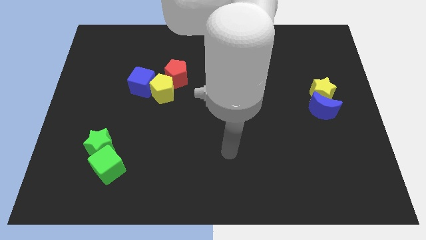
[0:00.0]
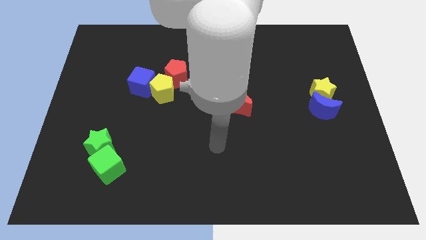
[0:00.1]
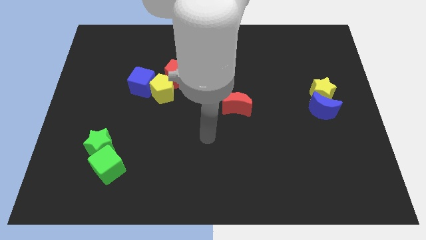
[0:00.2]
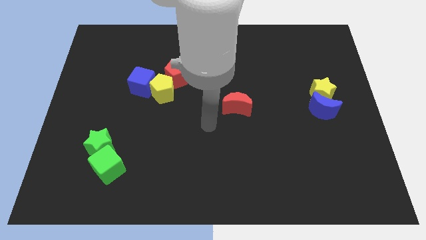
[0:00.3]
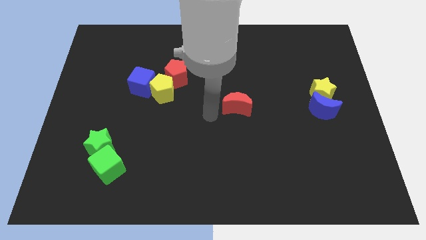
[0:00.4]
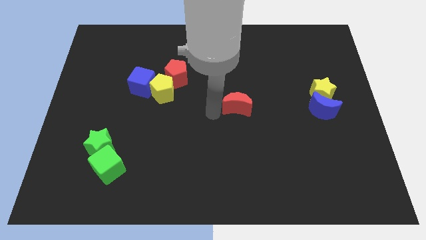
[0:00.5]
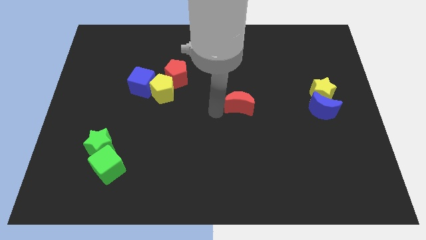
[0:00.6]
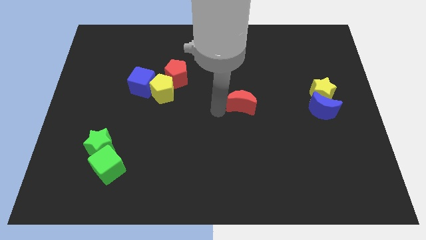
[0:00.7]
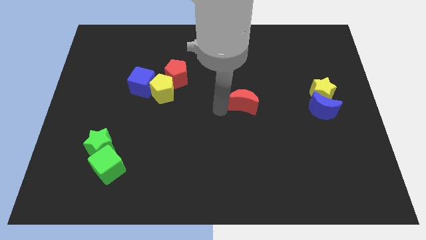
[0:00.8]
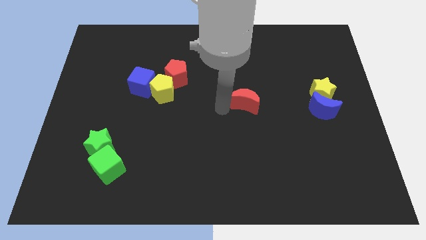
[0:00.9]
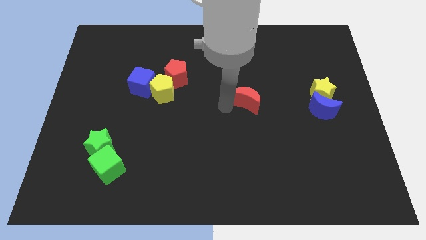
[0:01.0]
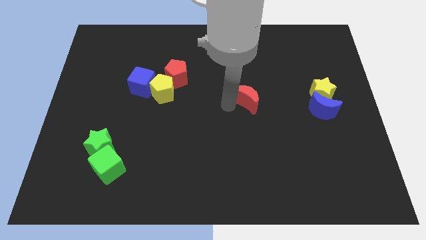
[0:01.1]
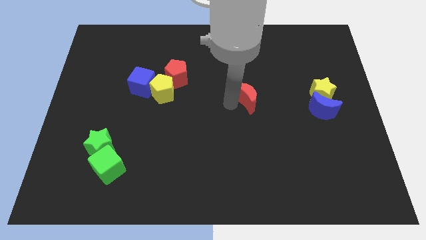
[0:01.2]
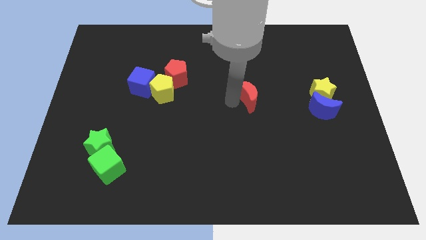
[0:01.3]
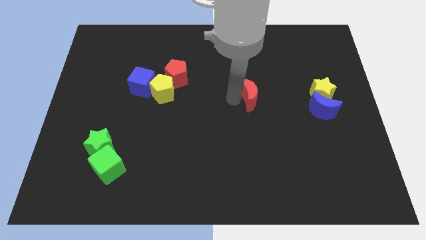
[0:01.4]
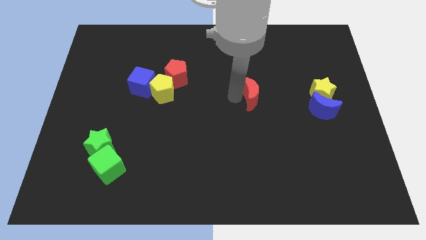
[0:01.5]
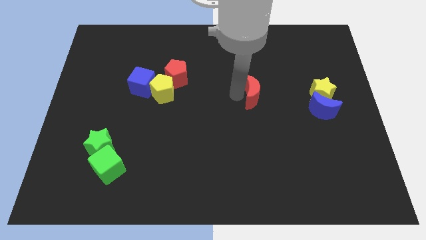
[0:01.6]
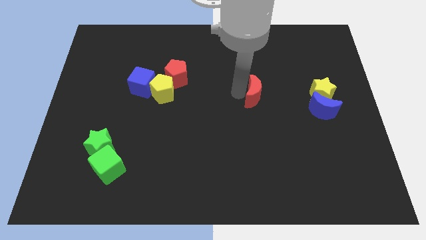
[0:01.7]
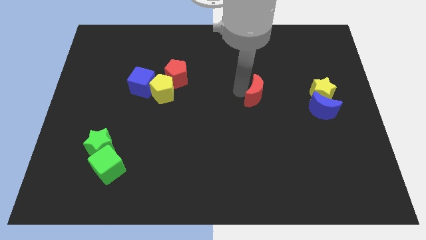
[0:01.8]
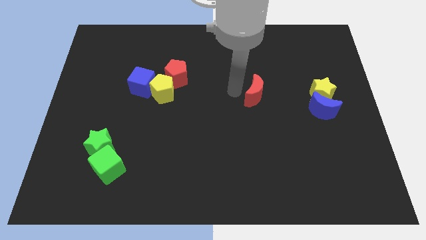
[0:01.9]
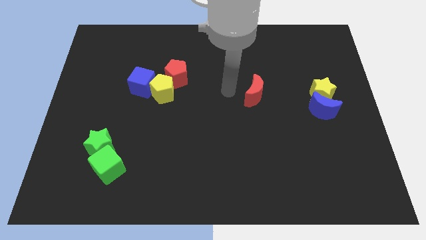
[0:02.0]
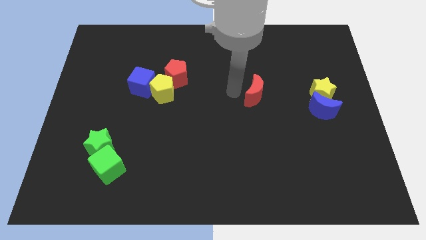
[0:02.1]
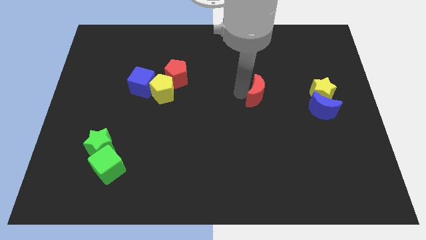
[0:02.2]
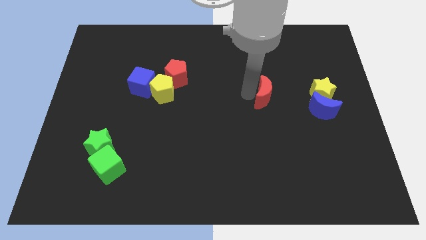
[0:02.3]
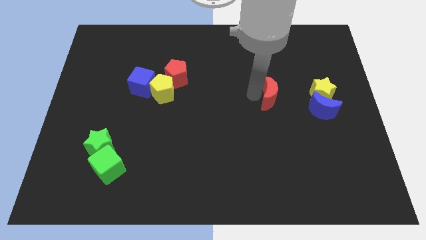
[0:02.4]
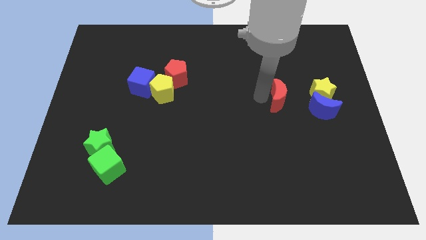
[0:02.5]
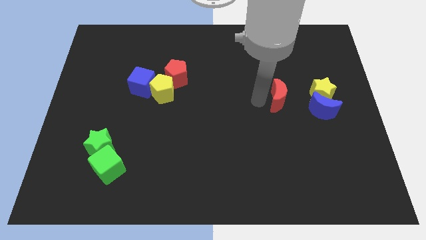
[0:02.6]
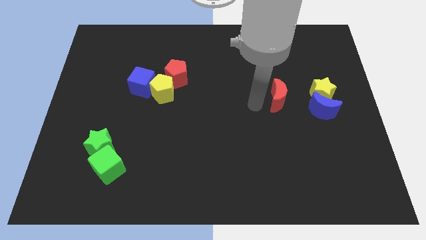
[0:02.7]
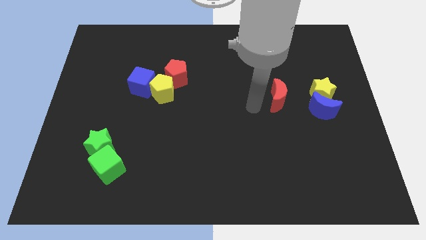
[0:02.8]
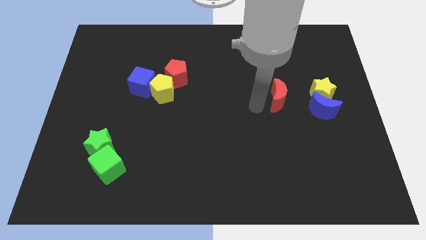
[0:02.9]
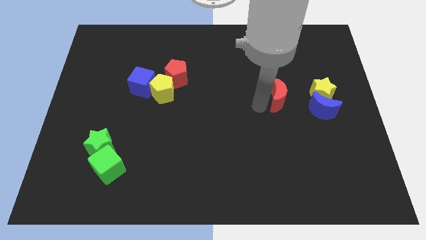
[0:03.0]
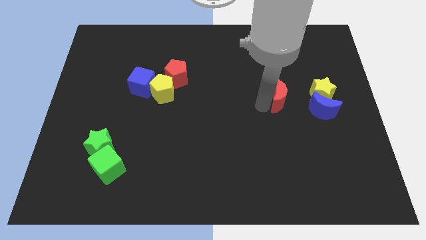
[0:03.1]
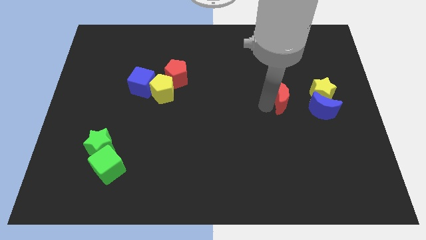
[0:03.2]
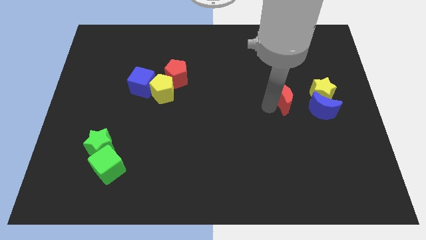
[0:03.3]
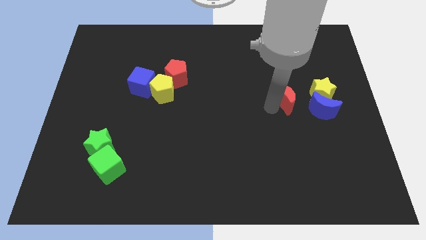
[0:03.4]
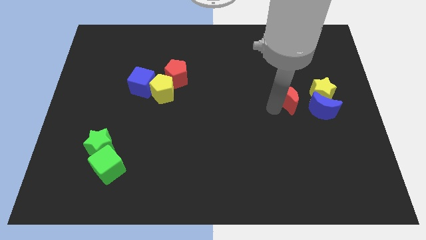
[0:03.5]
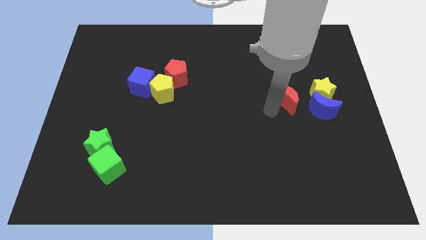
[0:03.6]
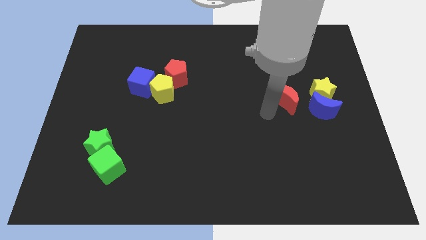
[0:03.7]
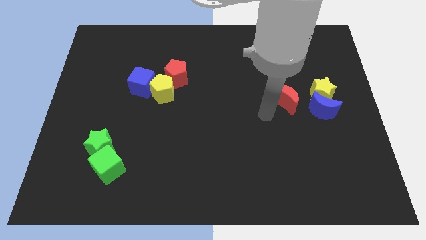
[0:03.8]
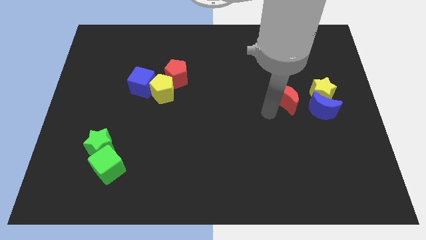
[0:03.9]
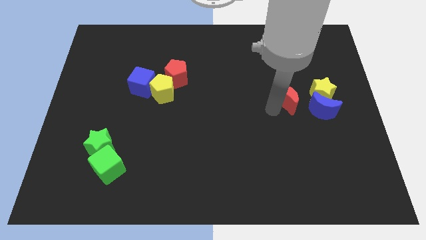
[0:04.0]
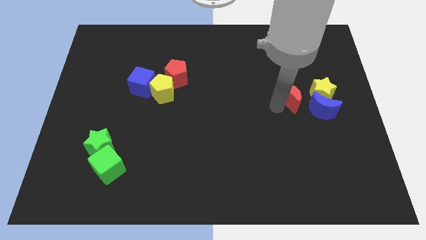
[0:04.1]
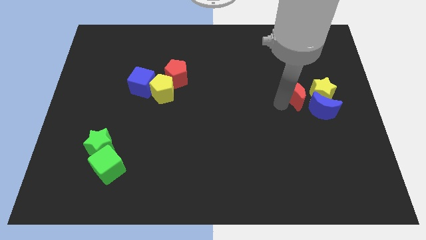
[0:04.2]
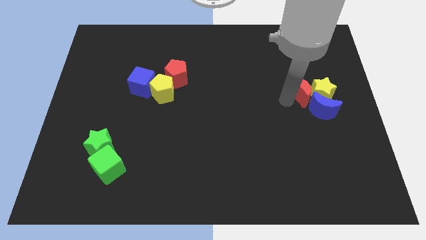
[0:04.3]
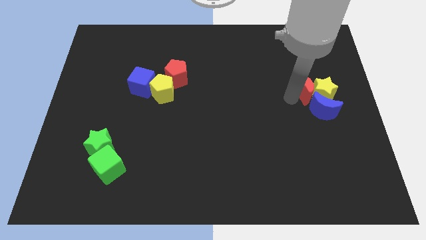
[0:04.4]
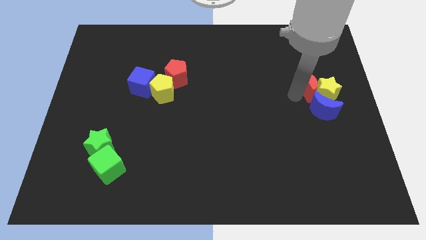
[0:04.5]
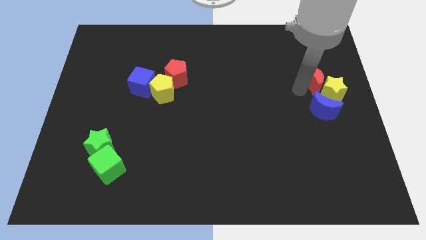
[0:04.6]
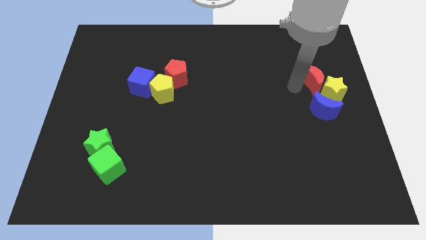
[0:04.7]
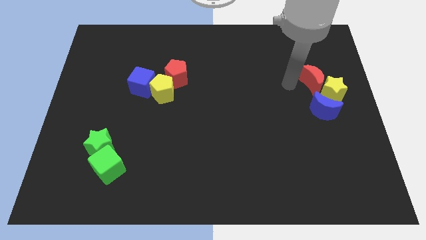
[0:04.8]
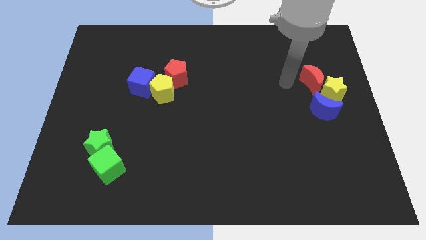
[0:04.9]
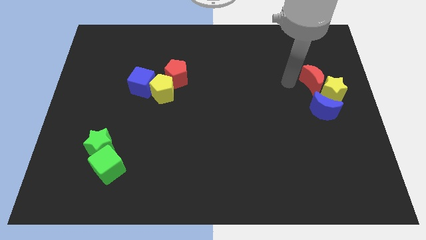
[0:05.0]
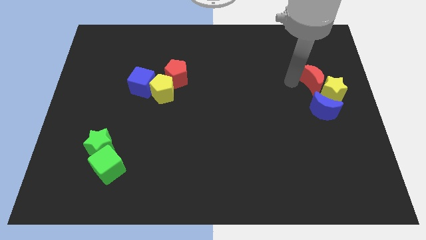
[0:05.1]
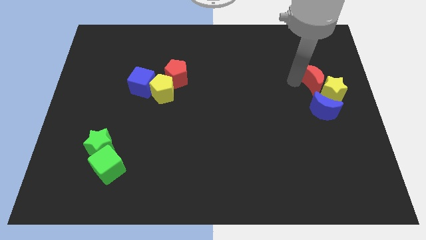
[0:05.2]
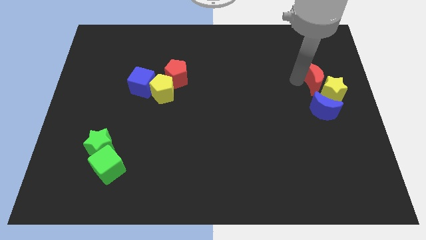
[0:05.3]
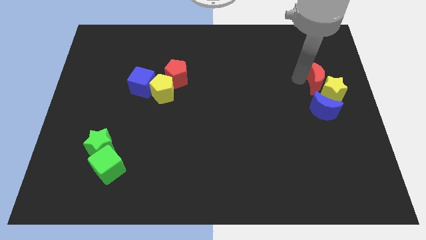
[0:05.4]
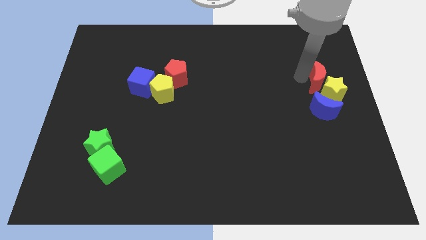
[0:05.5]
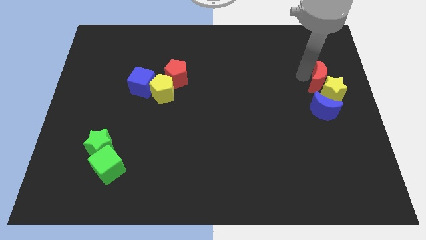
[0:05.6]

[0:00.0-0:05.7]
slide the red moon to the right side of the board

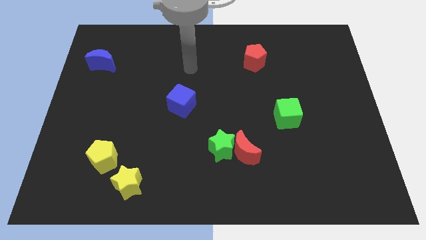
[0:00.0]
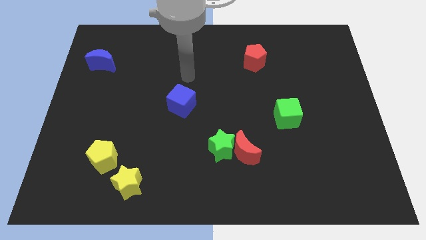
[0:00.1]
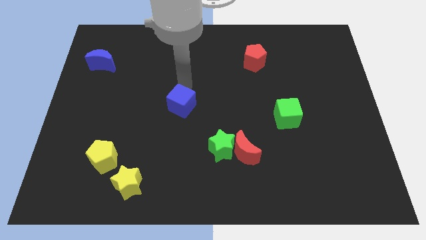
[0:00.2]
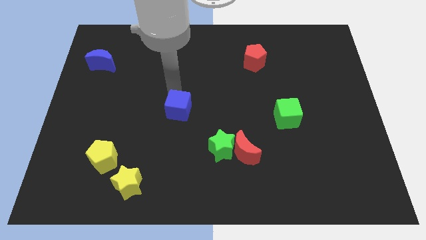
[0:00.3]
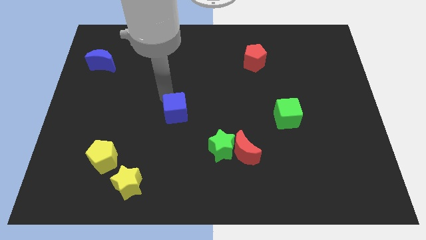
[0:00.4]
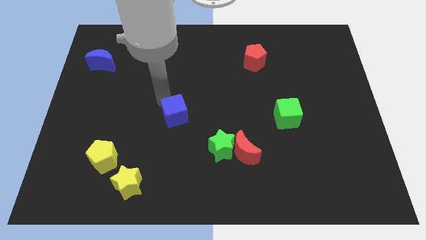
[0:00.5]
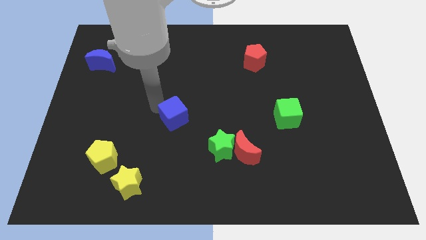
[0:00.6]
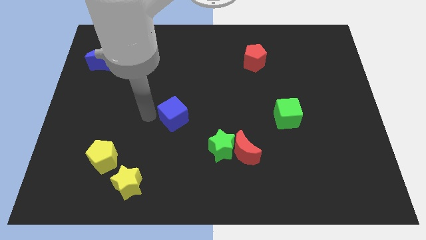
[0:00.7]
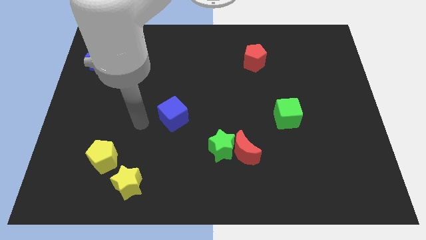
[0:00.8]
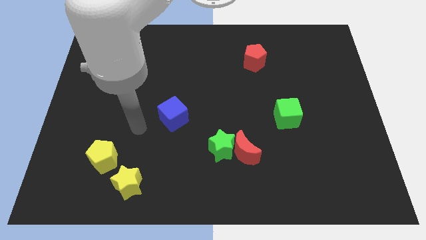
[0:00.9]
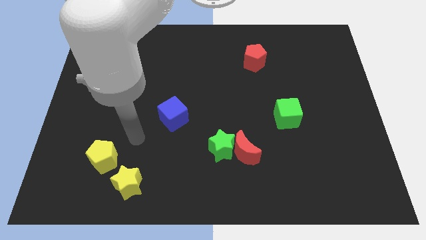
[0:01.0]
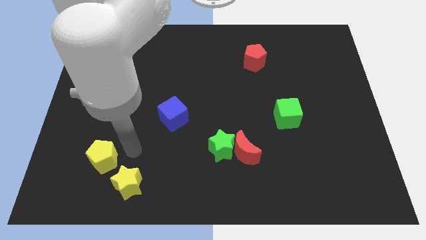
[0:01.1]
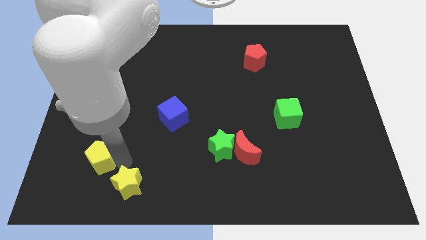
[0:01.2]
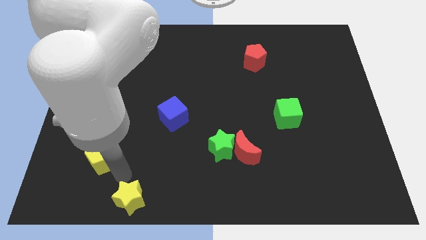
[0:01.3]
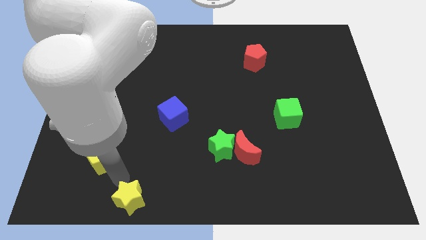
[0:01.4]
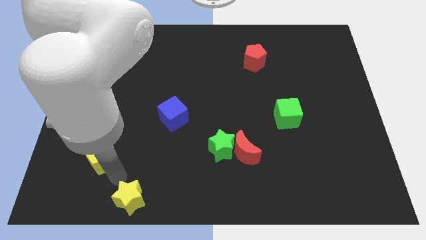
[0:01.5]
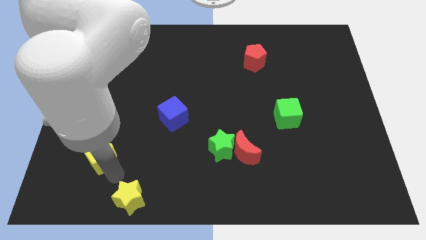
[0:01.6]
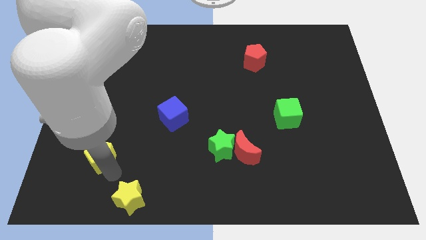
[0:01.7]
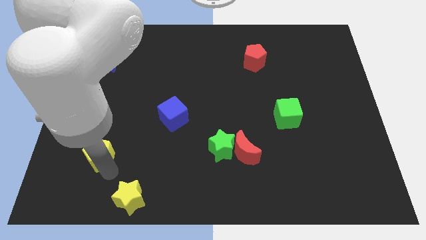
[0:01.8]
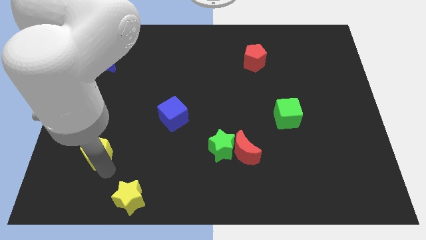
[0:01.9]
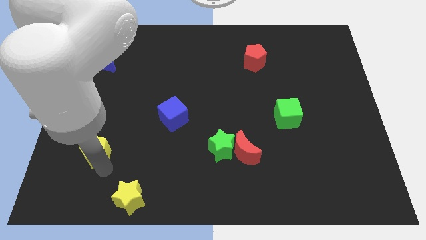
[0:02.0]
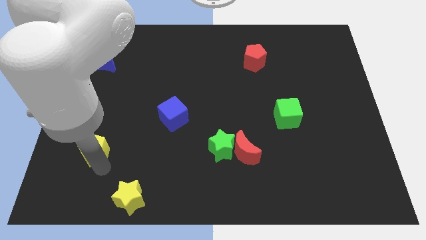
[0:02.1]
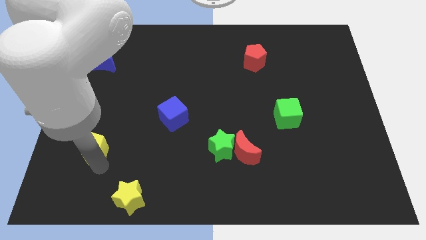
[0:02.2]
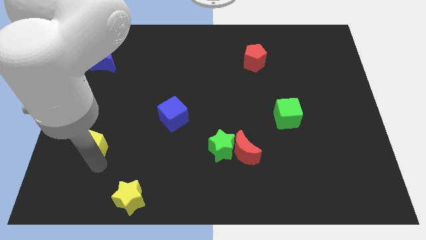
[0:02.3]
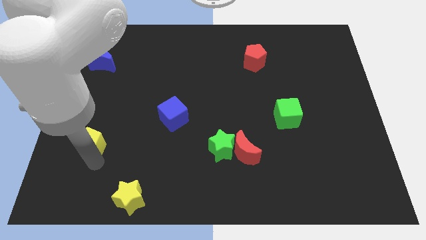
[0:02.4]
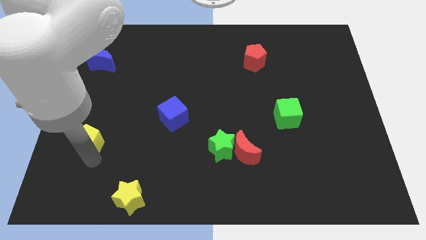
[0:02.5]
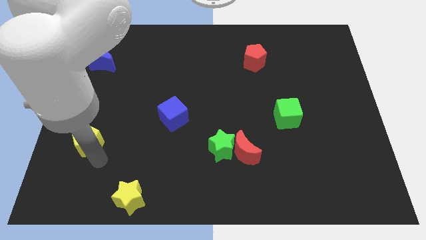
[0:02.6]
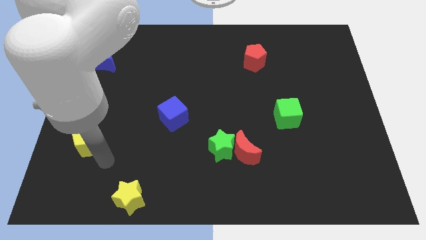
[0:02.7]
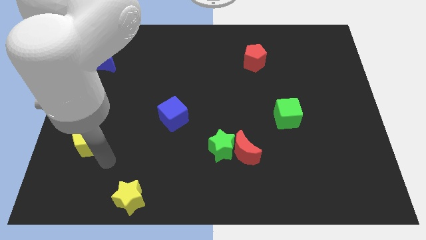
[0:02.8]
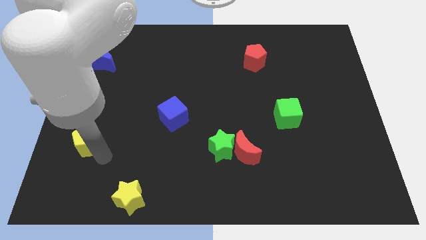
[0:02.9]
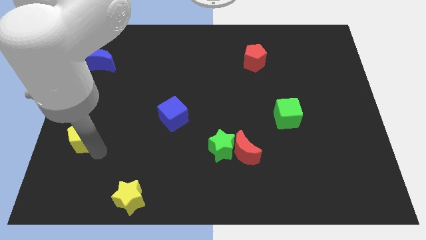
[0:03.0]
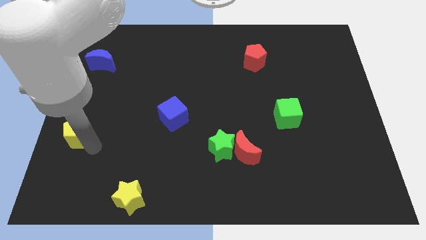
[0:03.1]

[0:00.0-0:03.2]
push the yellow pentagon to the left side
